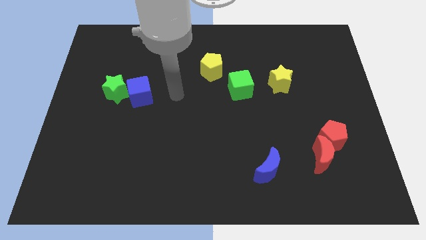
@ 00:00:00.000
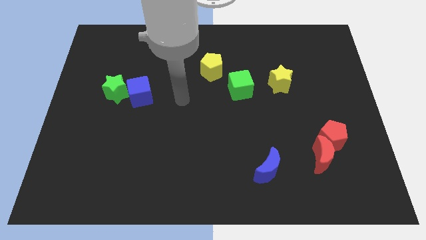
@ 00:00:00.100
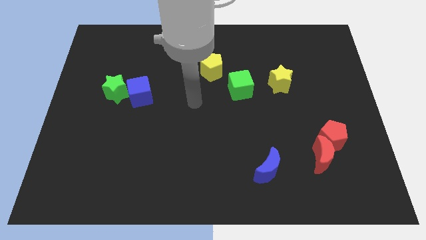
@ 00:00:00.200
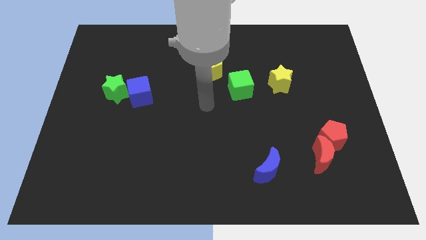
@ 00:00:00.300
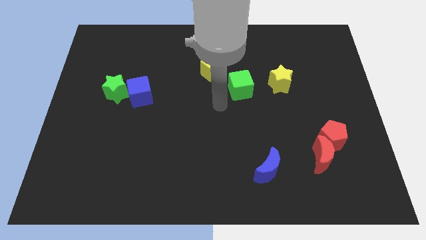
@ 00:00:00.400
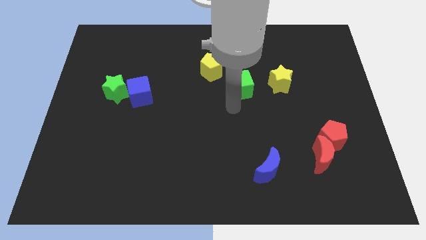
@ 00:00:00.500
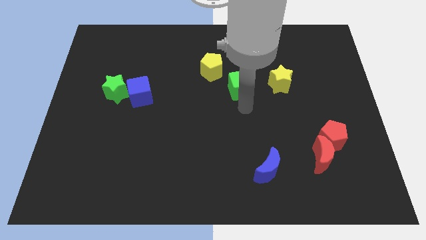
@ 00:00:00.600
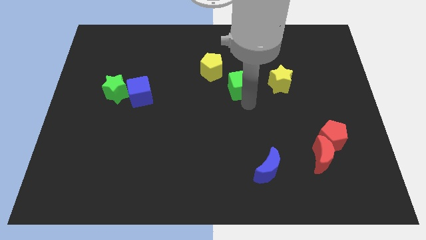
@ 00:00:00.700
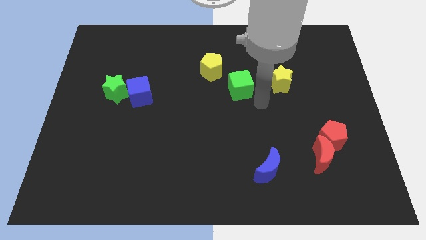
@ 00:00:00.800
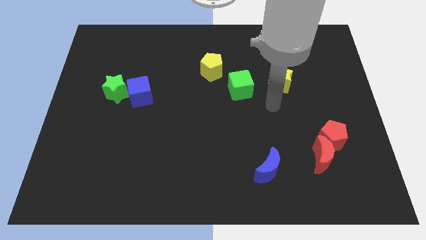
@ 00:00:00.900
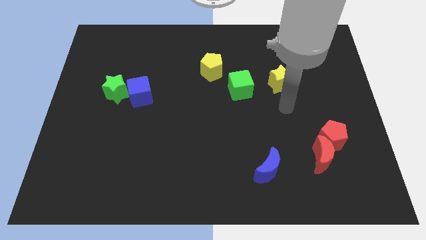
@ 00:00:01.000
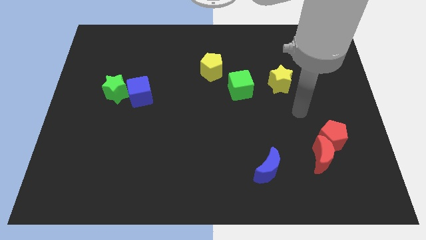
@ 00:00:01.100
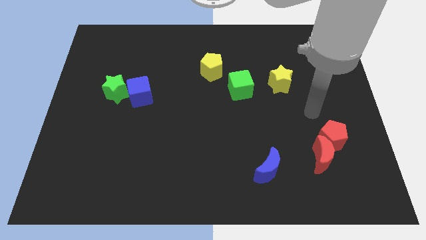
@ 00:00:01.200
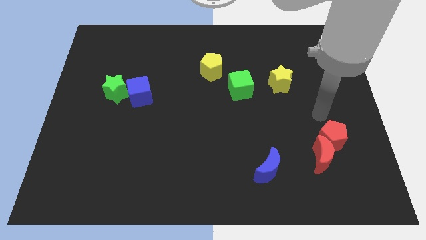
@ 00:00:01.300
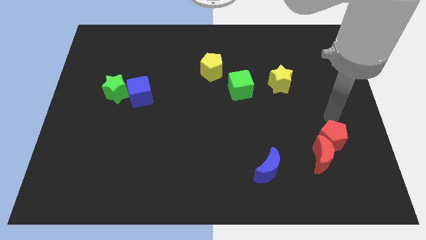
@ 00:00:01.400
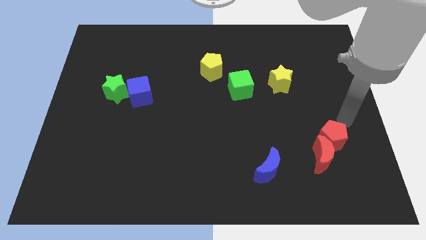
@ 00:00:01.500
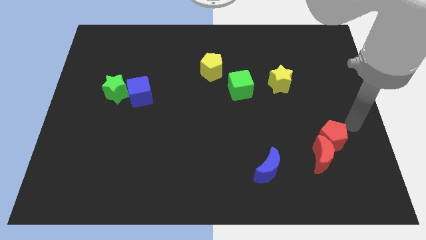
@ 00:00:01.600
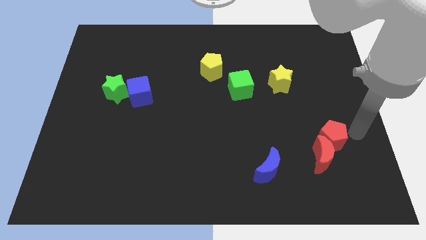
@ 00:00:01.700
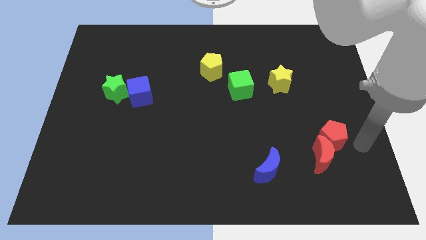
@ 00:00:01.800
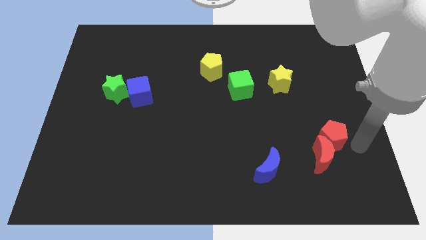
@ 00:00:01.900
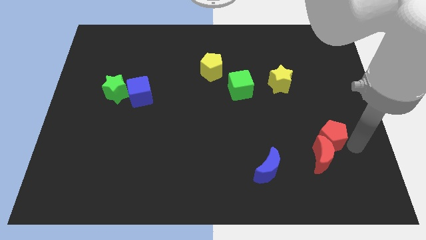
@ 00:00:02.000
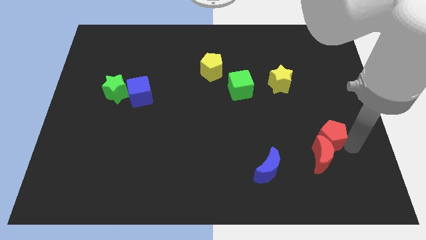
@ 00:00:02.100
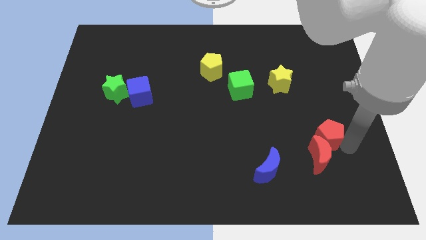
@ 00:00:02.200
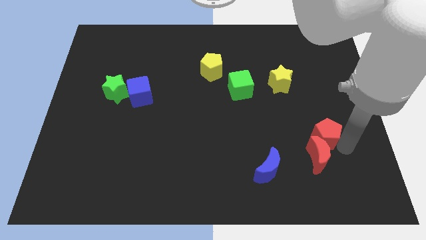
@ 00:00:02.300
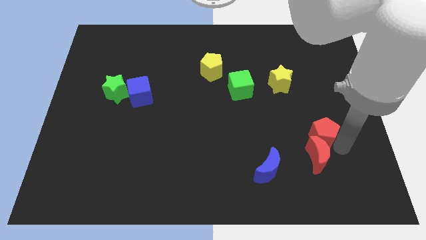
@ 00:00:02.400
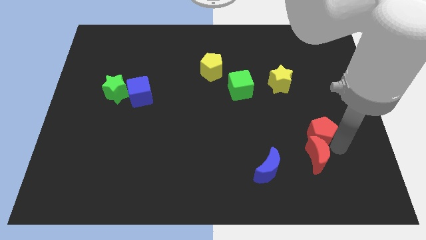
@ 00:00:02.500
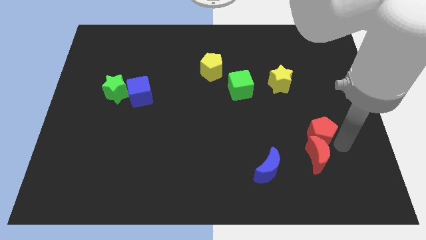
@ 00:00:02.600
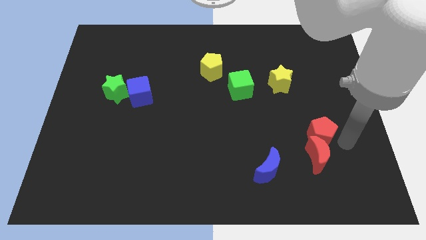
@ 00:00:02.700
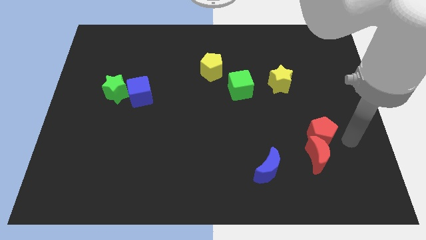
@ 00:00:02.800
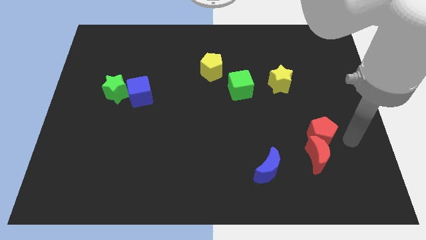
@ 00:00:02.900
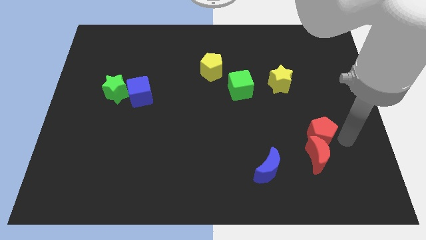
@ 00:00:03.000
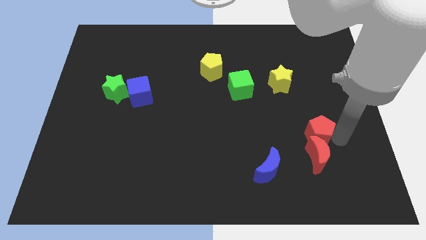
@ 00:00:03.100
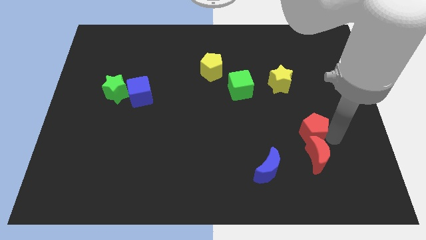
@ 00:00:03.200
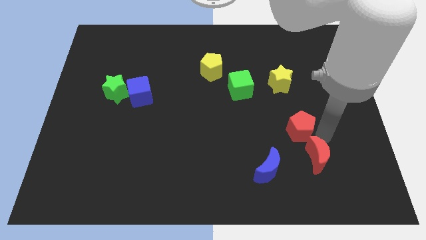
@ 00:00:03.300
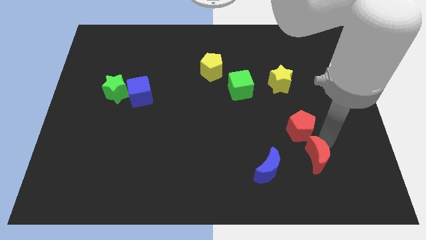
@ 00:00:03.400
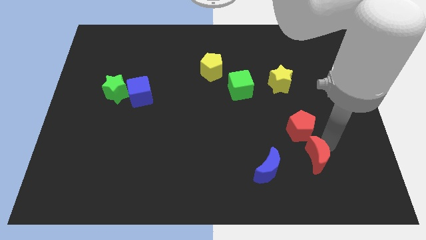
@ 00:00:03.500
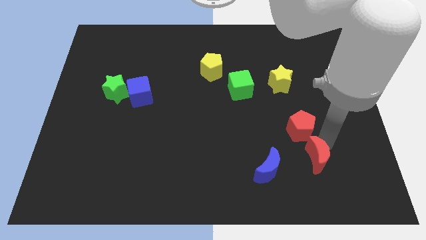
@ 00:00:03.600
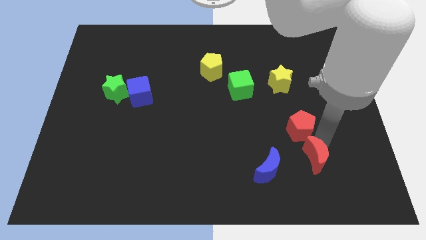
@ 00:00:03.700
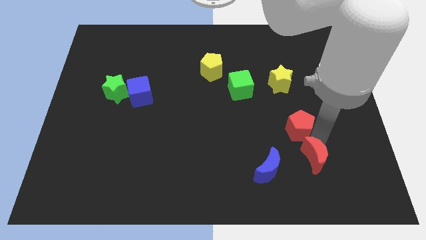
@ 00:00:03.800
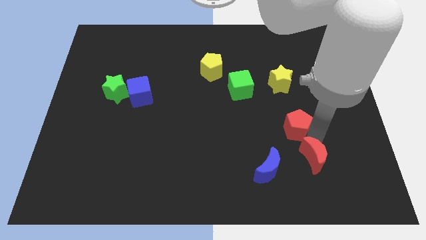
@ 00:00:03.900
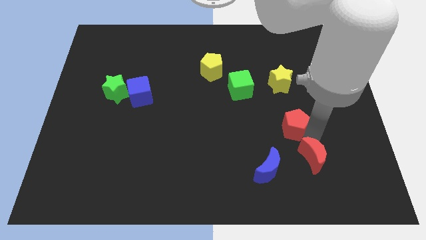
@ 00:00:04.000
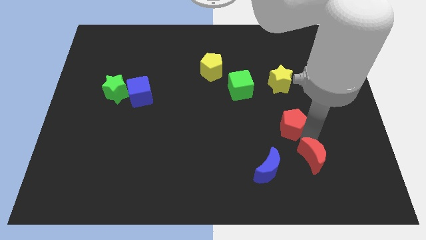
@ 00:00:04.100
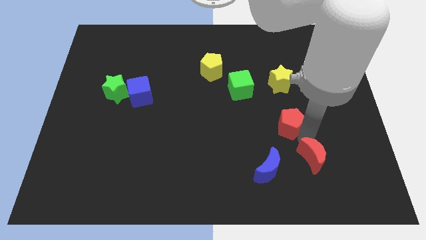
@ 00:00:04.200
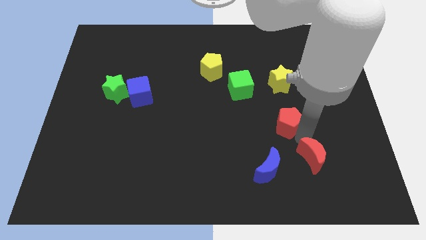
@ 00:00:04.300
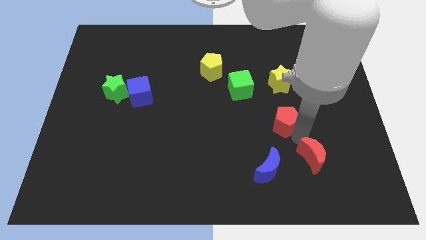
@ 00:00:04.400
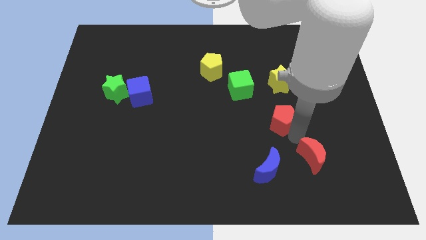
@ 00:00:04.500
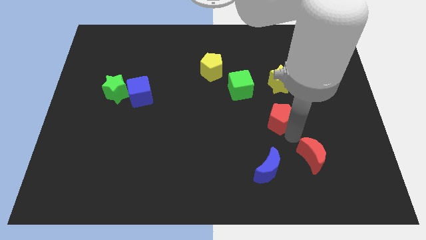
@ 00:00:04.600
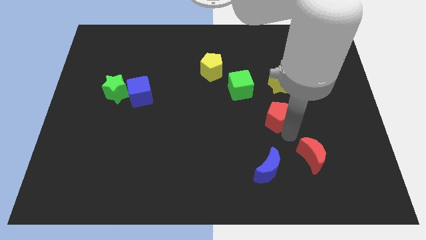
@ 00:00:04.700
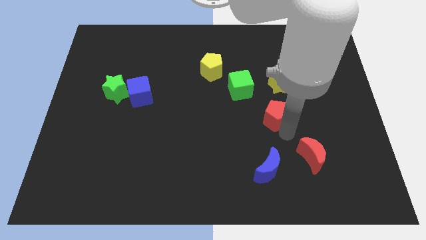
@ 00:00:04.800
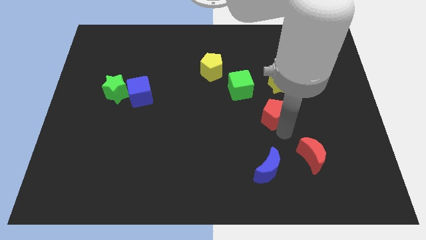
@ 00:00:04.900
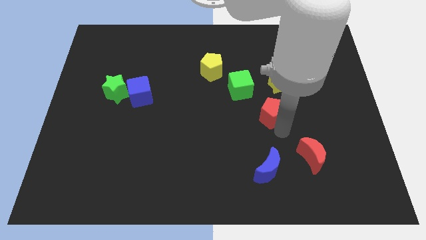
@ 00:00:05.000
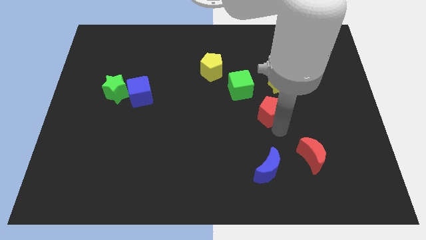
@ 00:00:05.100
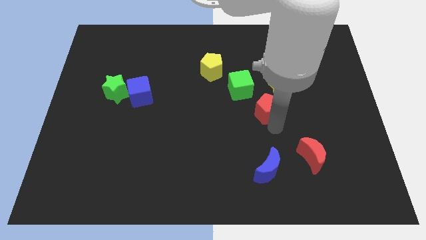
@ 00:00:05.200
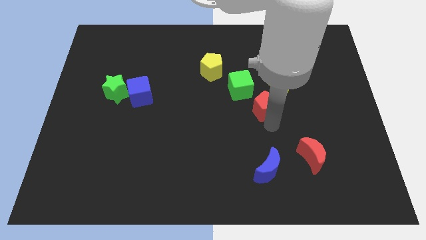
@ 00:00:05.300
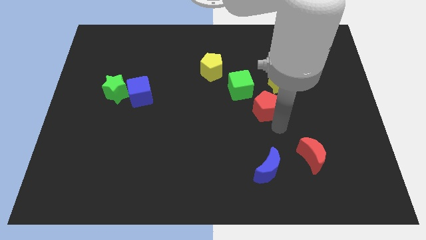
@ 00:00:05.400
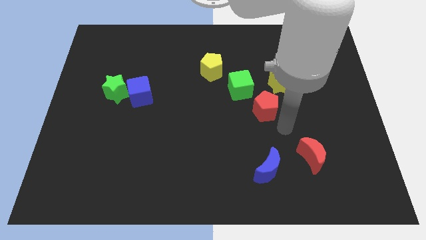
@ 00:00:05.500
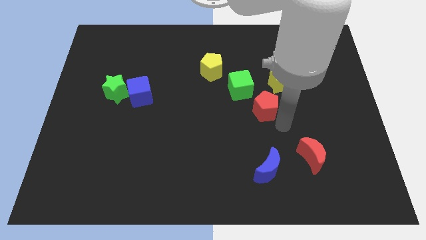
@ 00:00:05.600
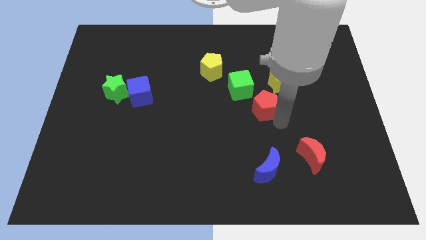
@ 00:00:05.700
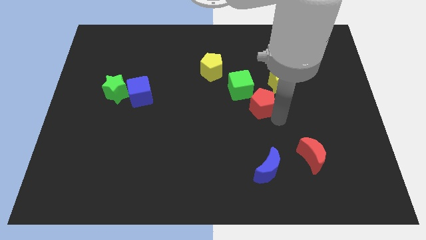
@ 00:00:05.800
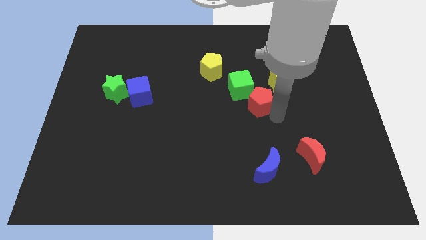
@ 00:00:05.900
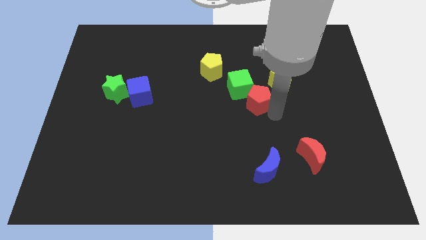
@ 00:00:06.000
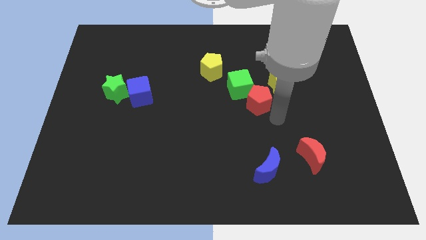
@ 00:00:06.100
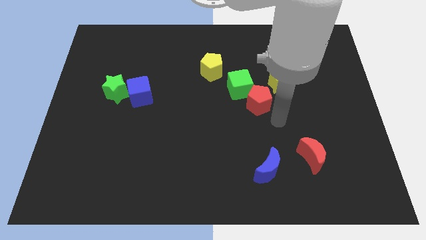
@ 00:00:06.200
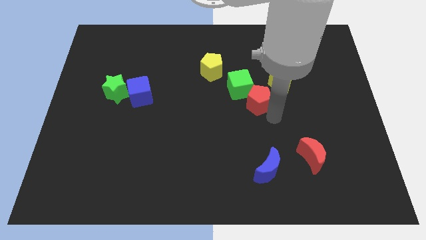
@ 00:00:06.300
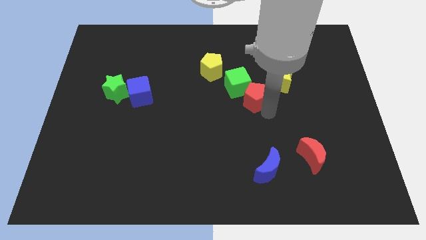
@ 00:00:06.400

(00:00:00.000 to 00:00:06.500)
move the red pentagon next to the green cube

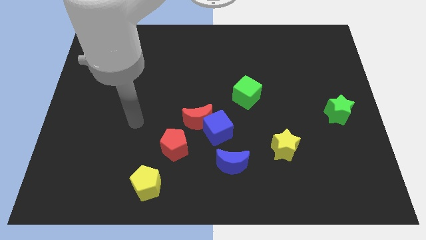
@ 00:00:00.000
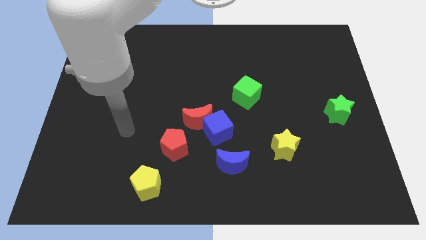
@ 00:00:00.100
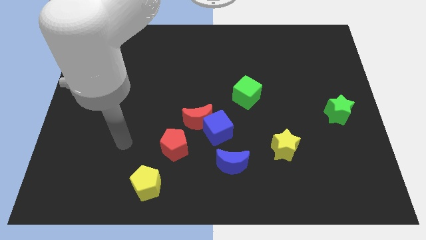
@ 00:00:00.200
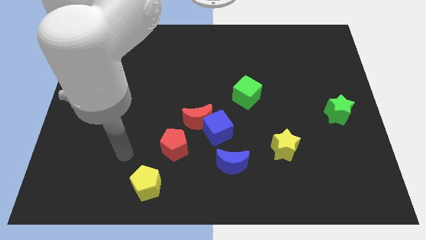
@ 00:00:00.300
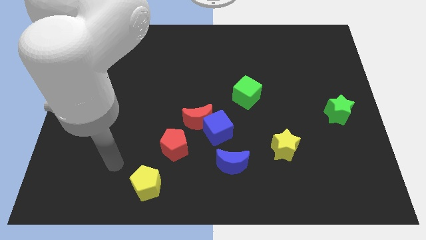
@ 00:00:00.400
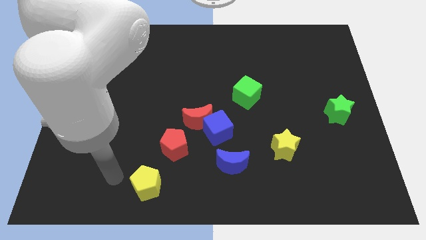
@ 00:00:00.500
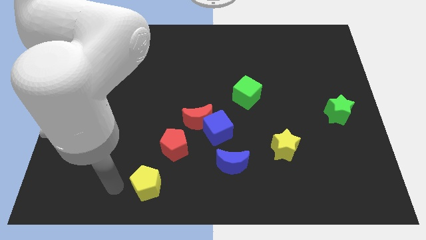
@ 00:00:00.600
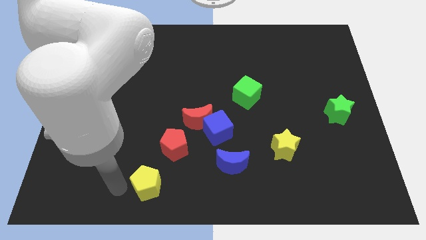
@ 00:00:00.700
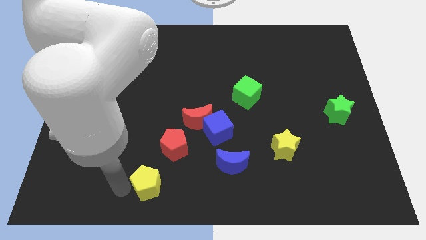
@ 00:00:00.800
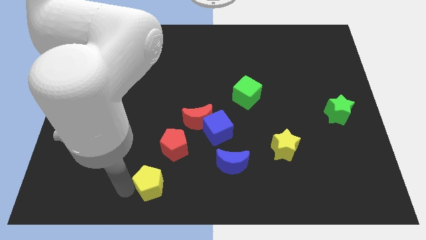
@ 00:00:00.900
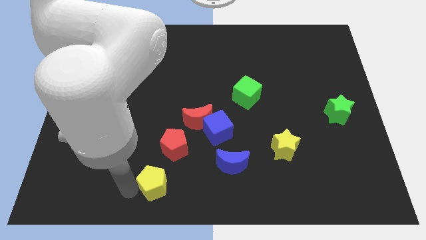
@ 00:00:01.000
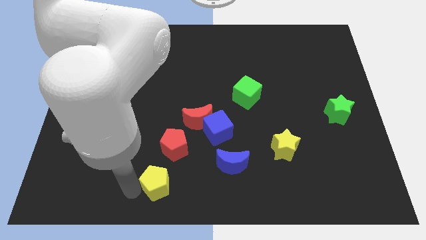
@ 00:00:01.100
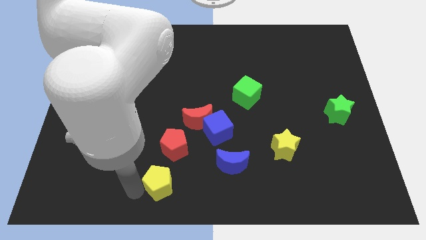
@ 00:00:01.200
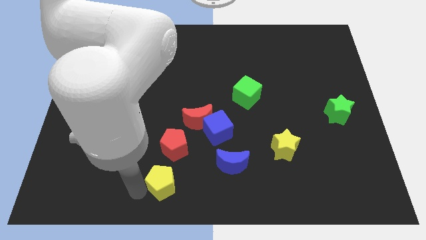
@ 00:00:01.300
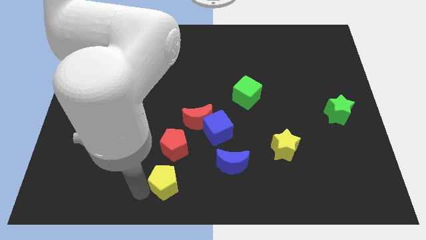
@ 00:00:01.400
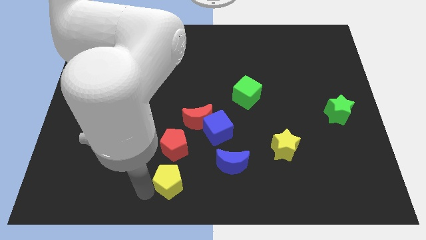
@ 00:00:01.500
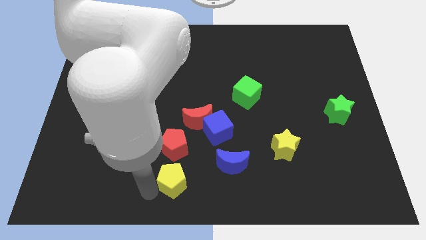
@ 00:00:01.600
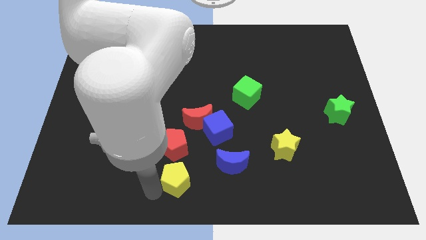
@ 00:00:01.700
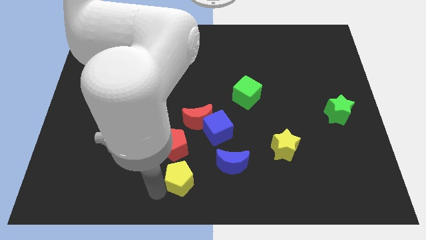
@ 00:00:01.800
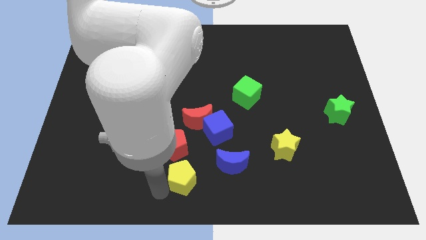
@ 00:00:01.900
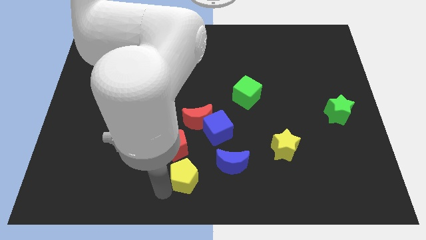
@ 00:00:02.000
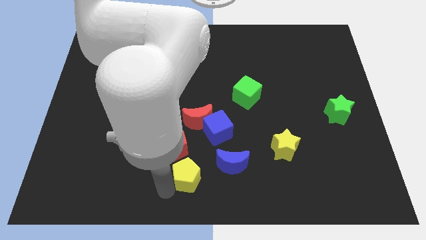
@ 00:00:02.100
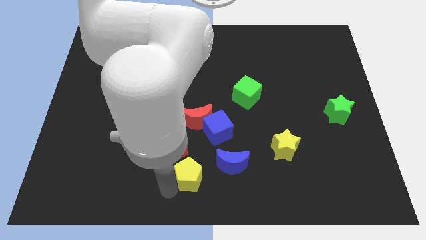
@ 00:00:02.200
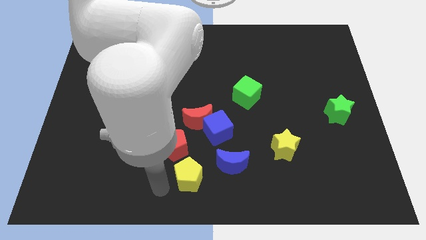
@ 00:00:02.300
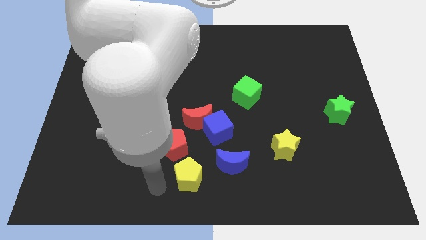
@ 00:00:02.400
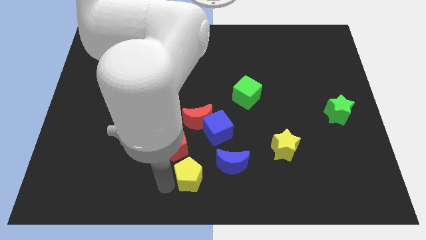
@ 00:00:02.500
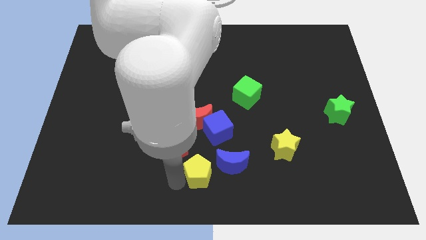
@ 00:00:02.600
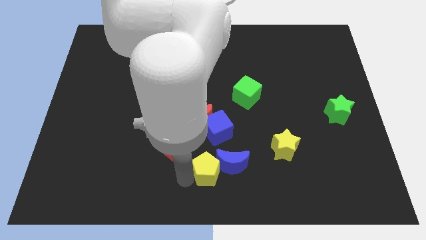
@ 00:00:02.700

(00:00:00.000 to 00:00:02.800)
push the yellow pentagon to the blue moon
